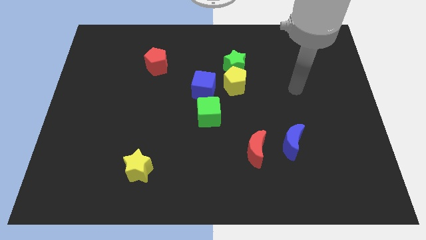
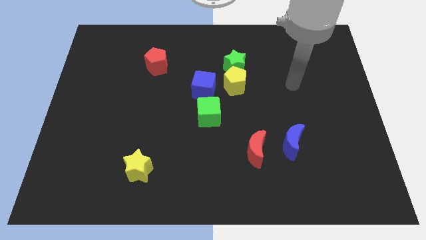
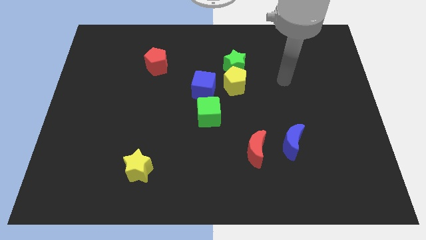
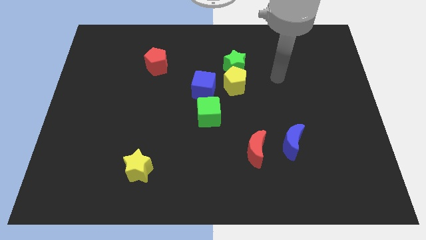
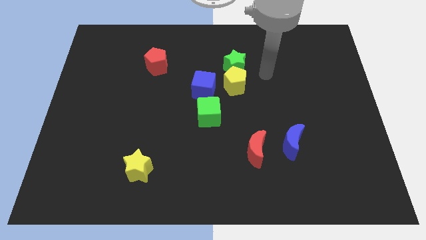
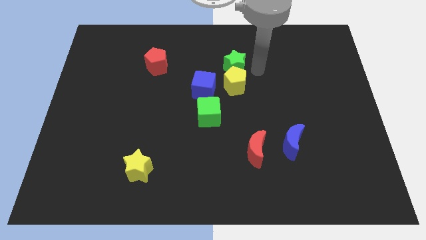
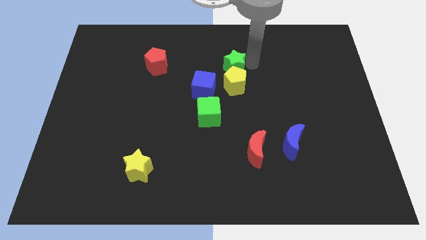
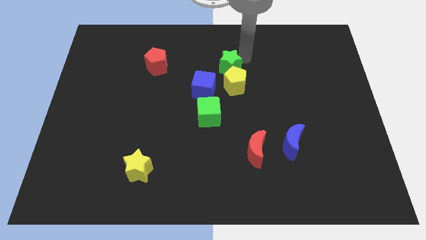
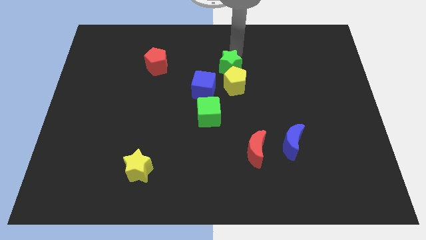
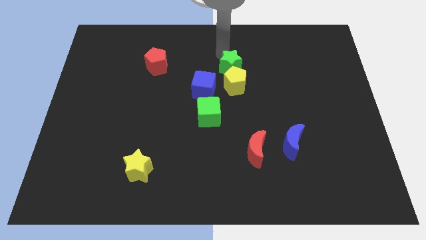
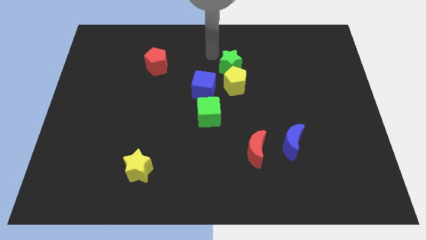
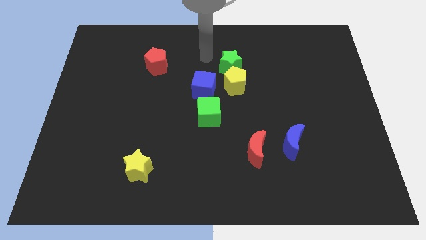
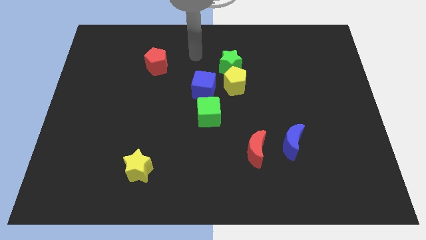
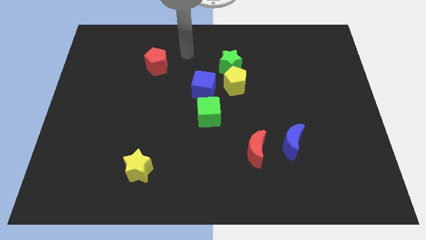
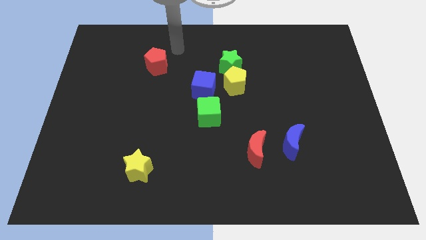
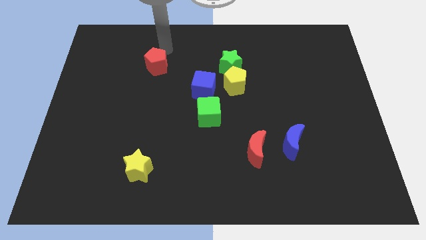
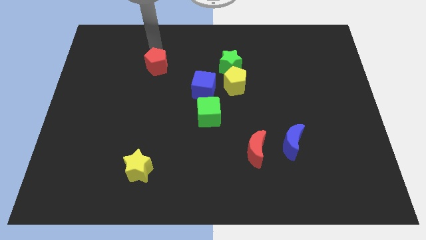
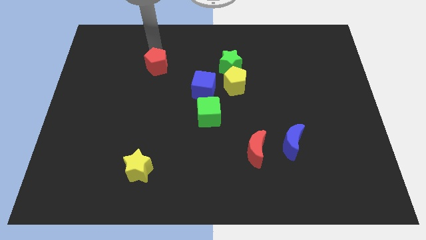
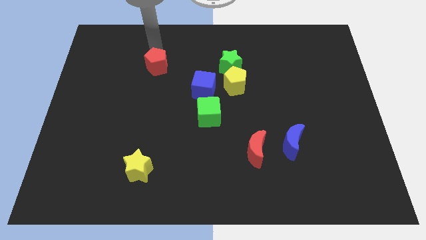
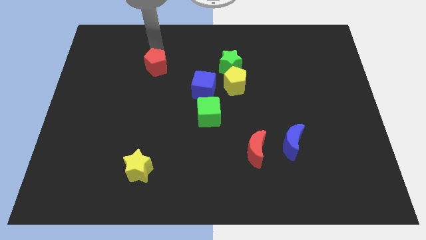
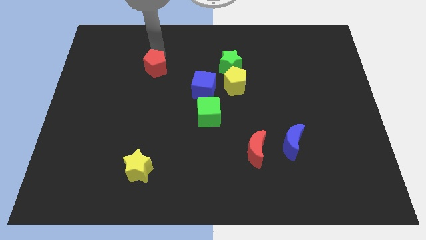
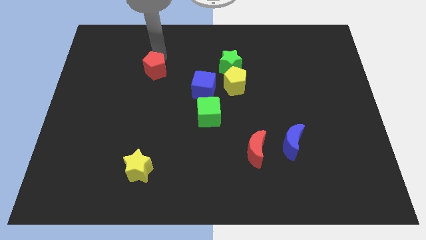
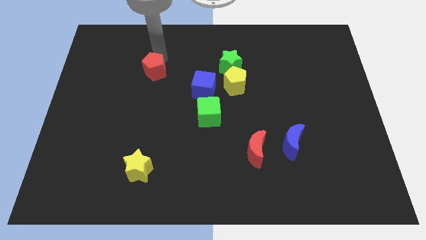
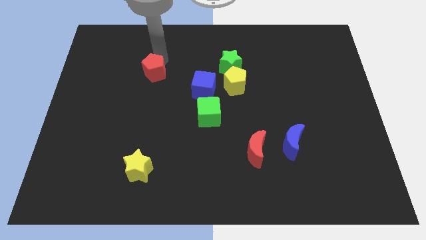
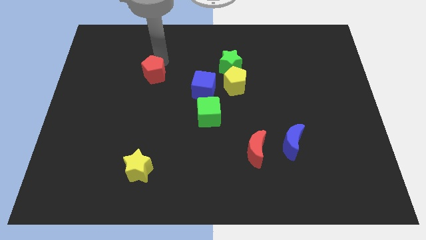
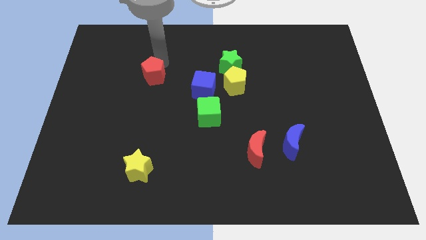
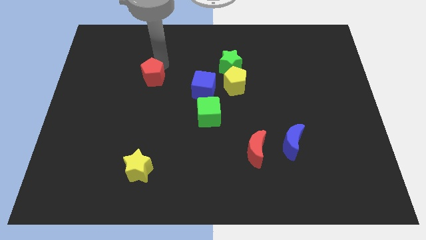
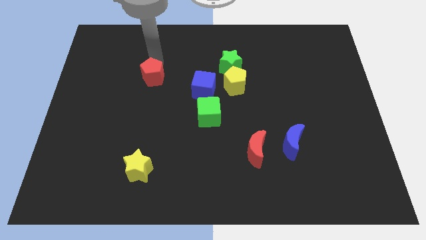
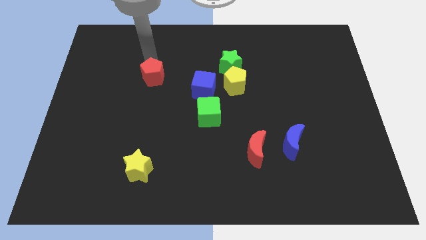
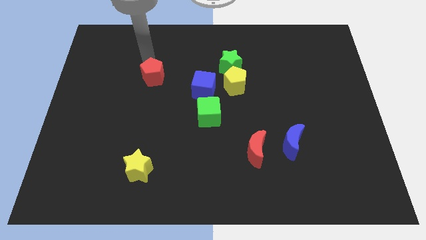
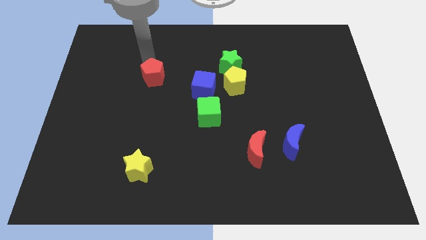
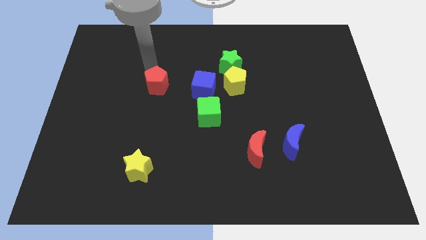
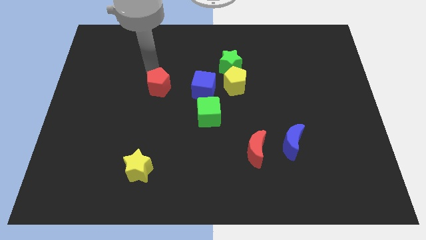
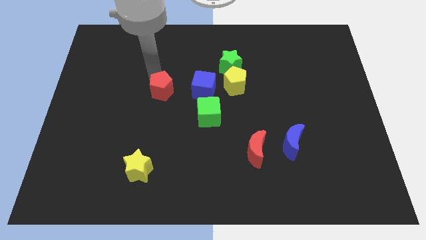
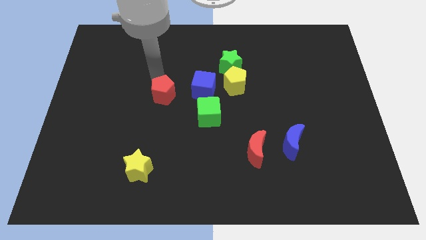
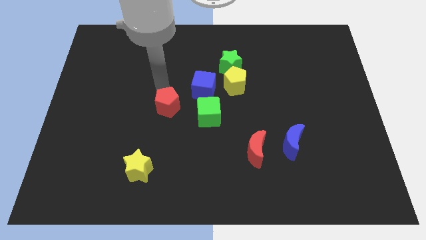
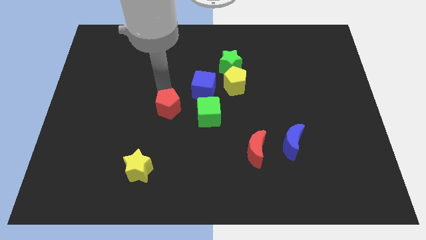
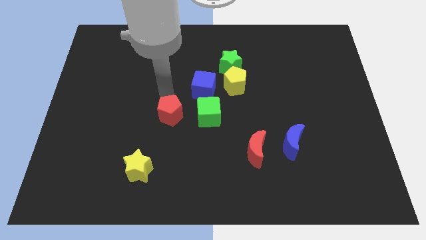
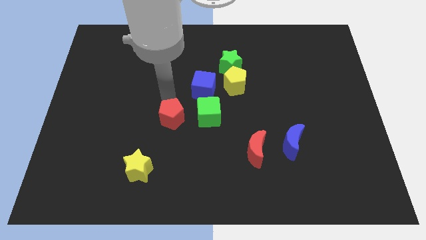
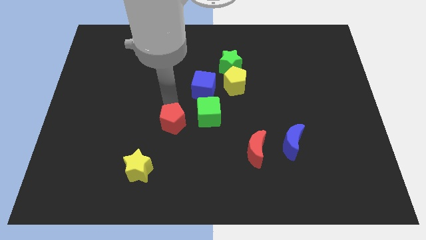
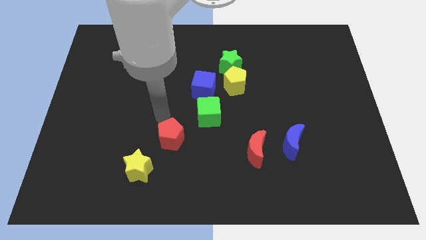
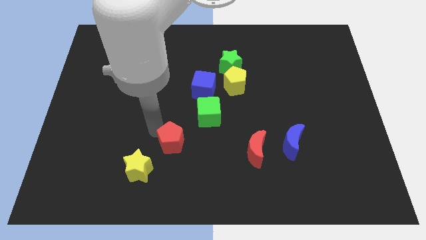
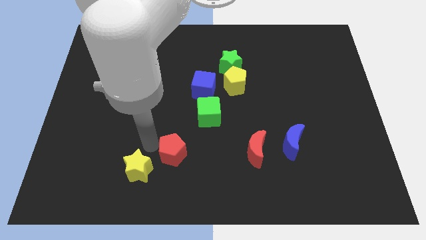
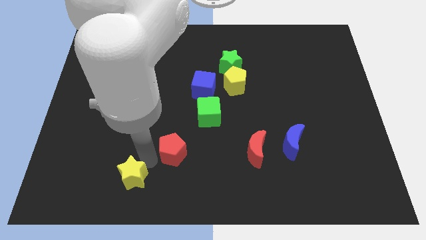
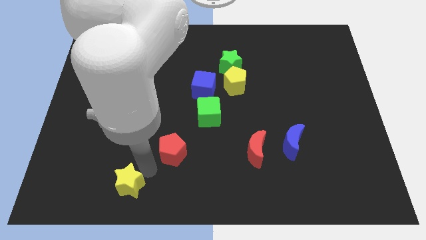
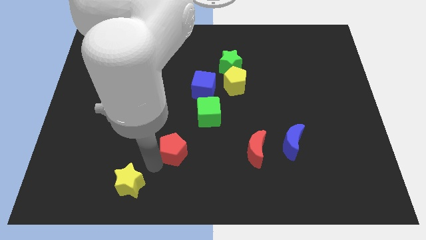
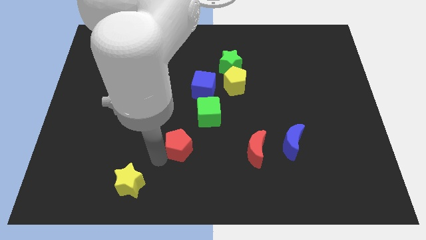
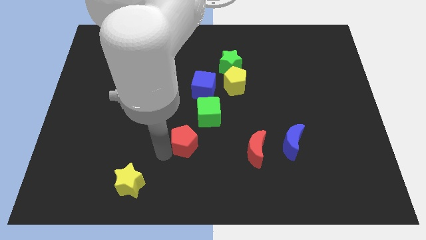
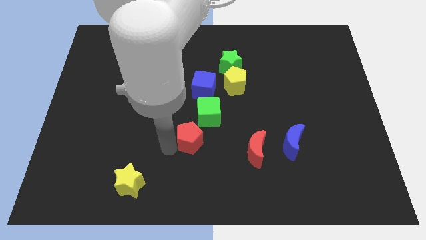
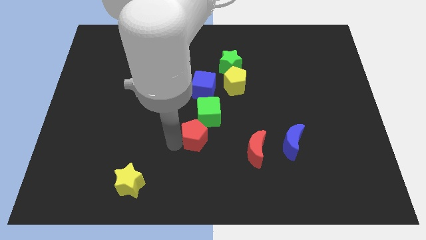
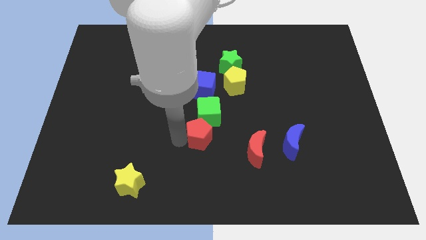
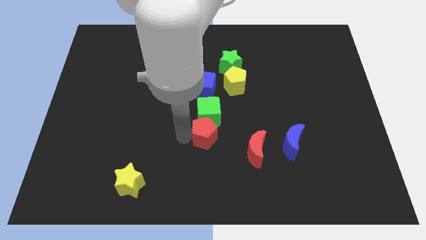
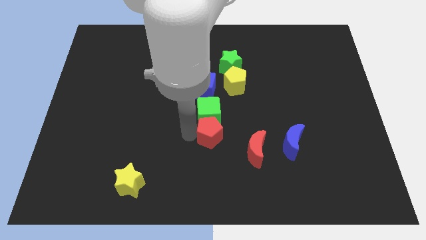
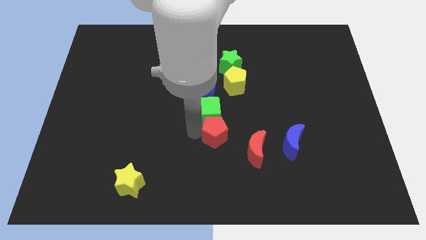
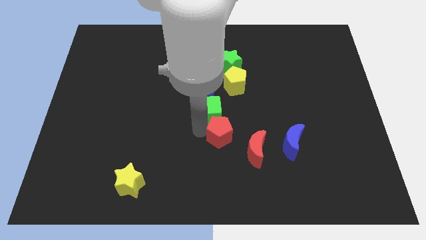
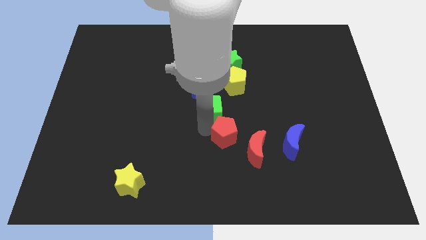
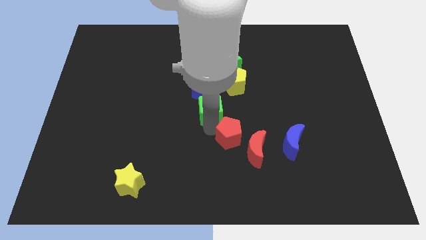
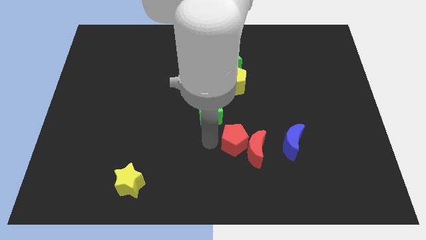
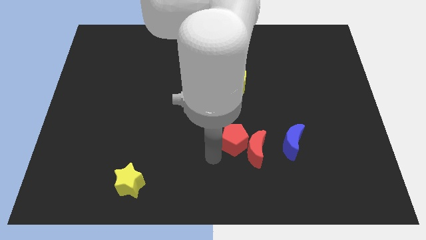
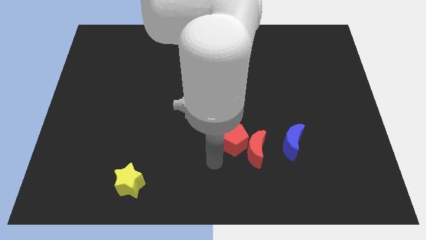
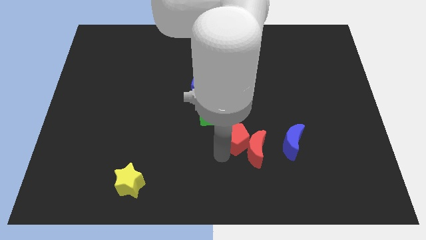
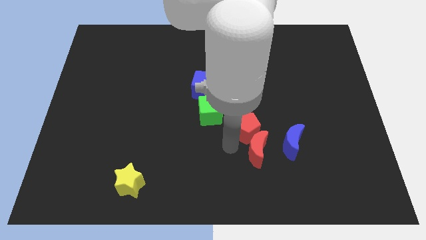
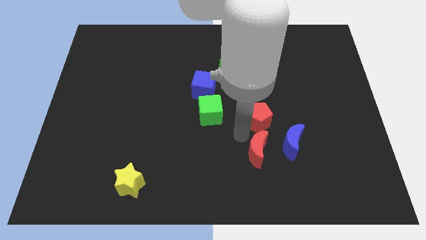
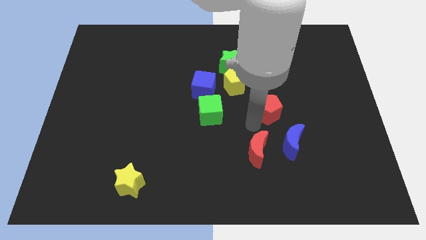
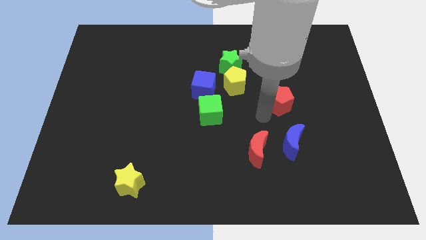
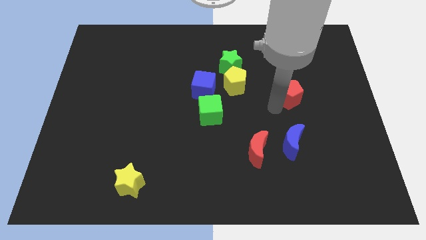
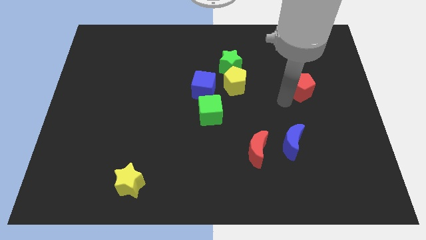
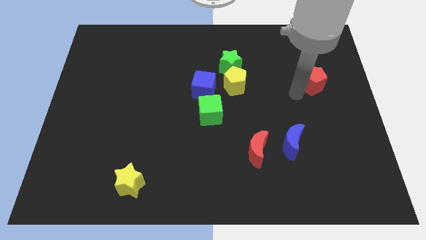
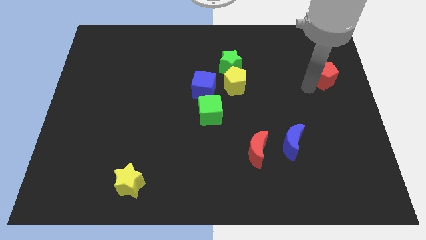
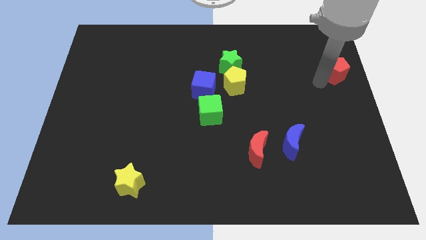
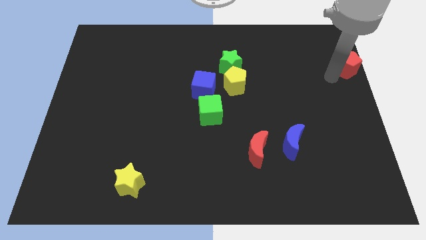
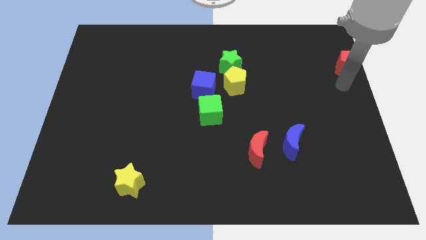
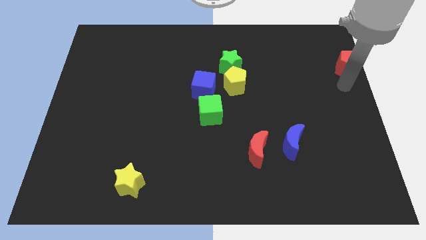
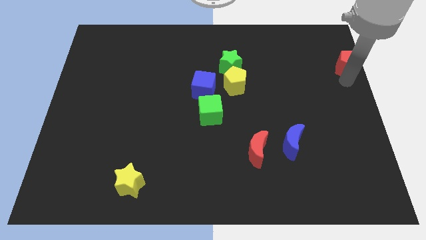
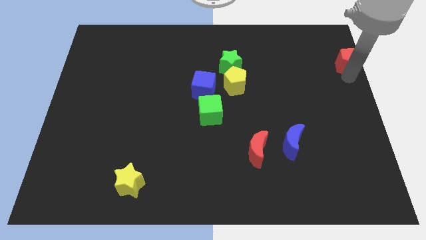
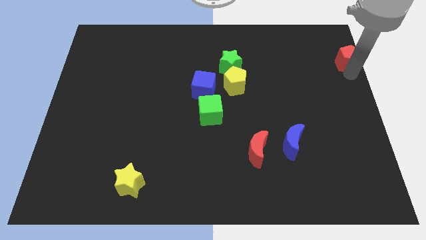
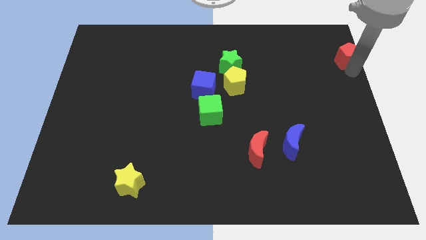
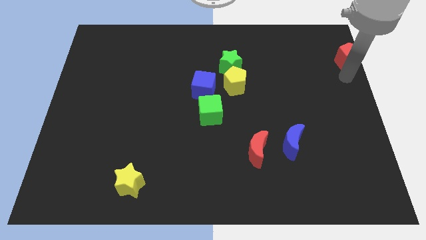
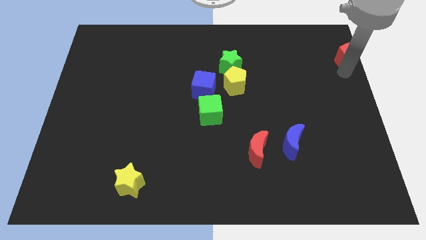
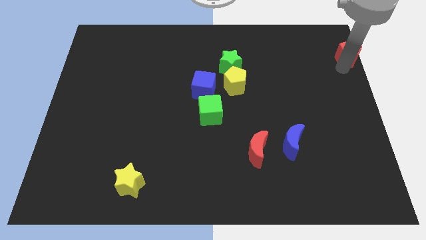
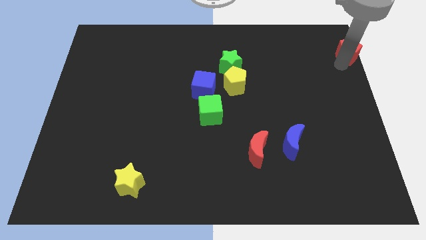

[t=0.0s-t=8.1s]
put the red pentagon to the top right
